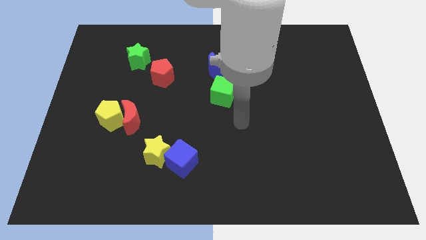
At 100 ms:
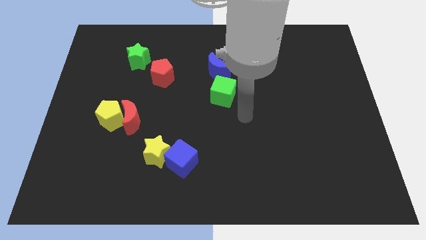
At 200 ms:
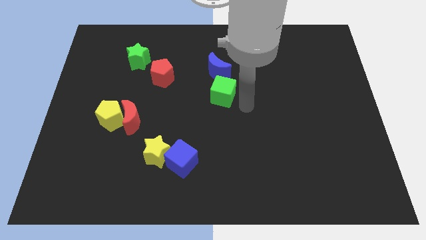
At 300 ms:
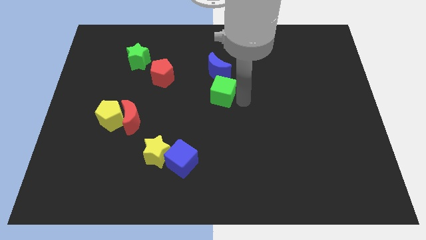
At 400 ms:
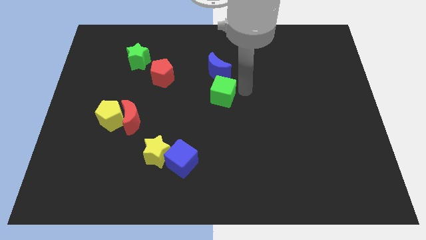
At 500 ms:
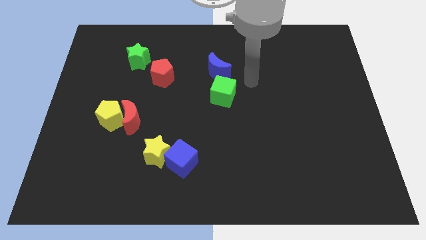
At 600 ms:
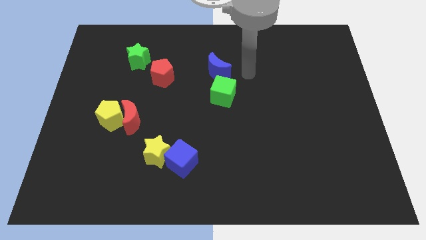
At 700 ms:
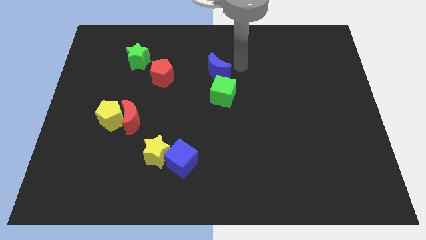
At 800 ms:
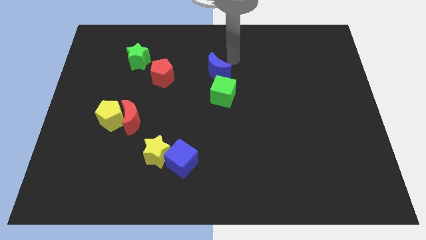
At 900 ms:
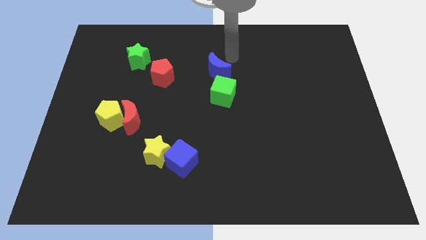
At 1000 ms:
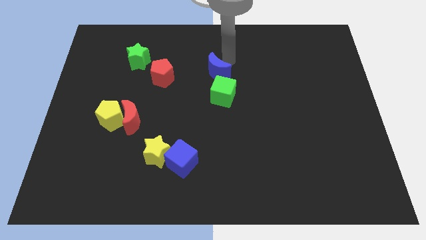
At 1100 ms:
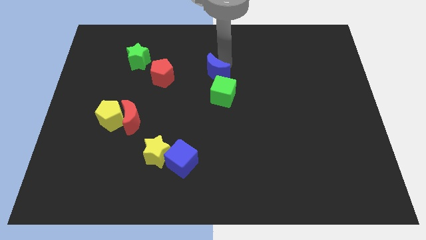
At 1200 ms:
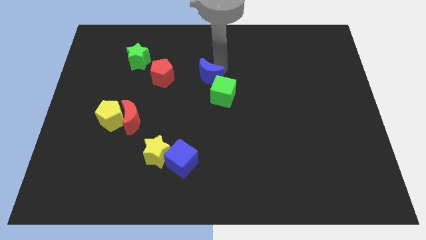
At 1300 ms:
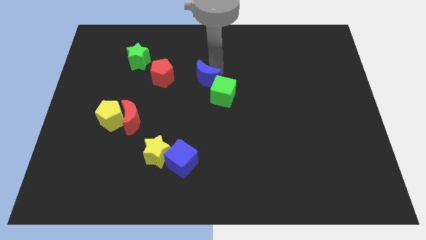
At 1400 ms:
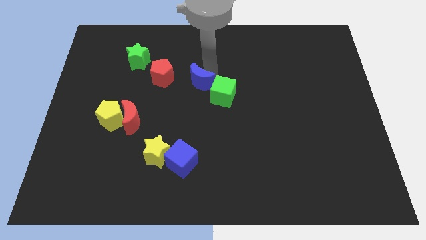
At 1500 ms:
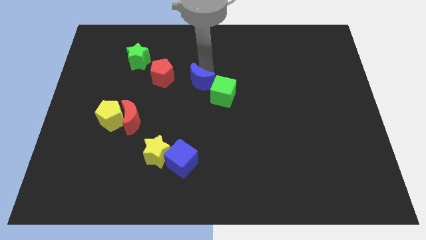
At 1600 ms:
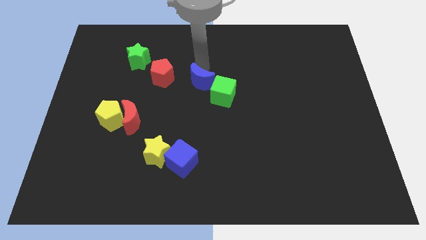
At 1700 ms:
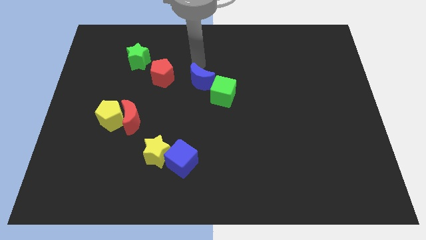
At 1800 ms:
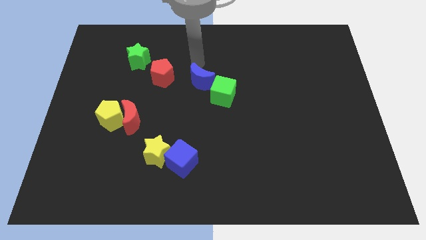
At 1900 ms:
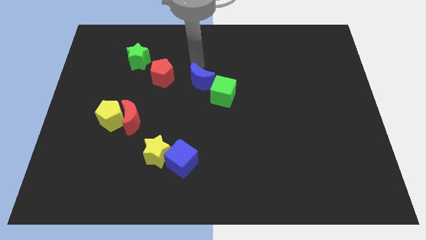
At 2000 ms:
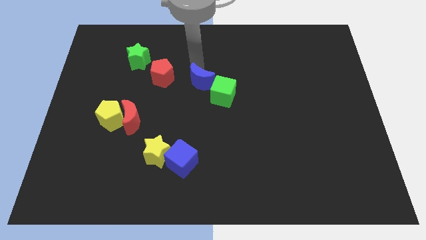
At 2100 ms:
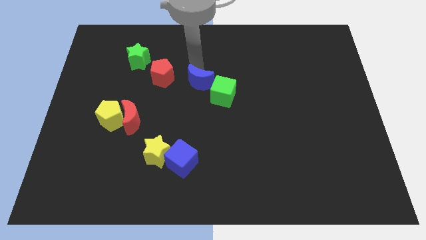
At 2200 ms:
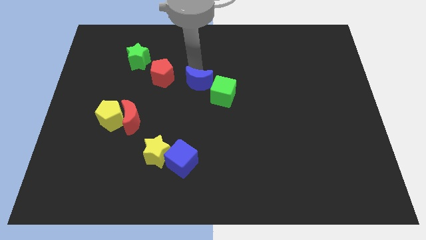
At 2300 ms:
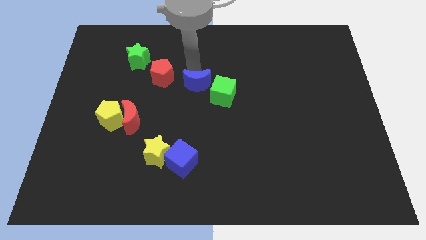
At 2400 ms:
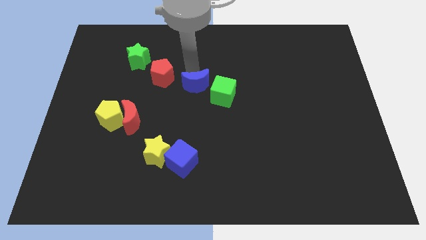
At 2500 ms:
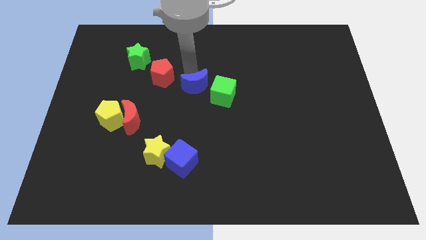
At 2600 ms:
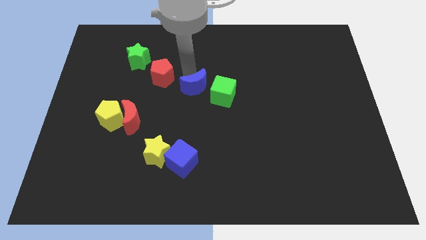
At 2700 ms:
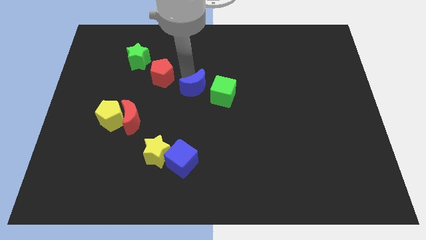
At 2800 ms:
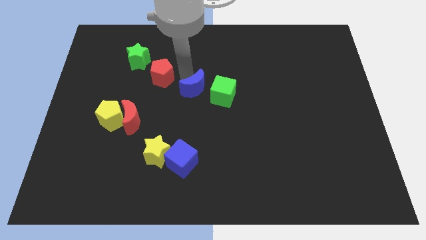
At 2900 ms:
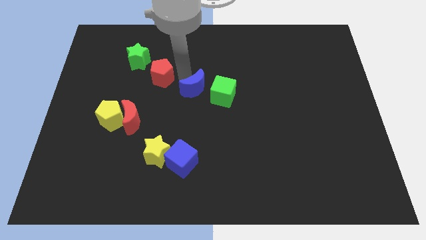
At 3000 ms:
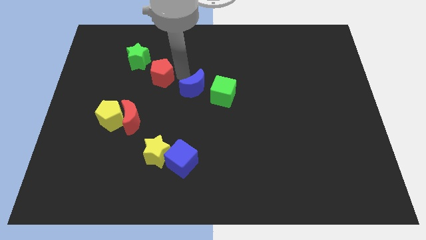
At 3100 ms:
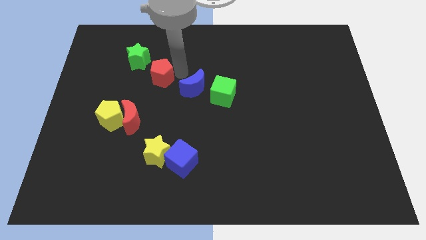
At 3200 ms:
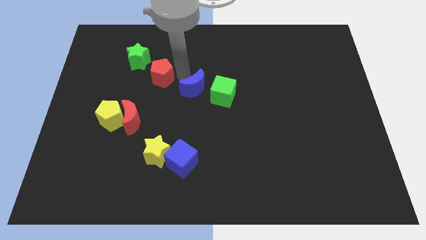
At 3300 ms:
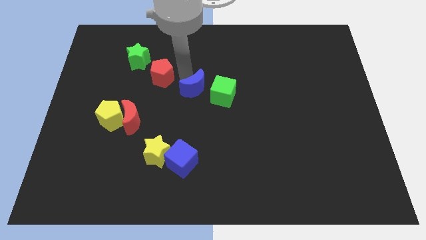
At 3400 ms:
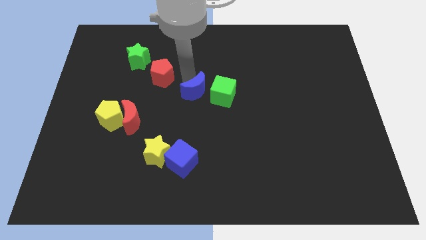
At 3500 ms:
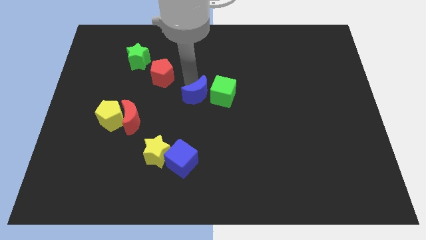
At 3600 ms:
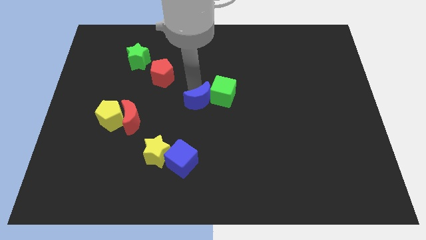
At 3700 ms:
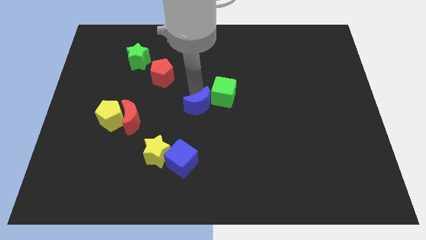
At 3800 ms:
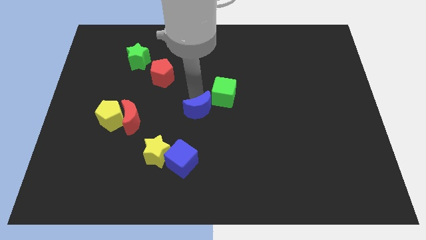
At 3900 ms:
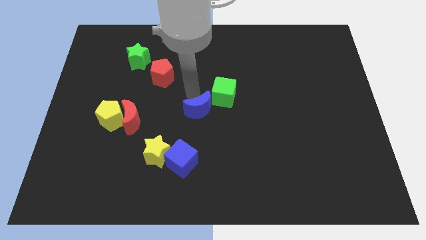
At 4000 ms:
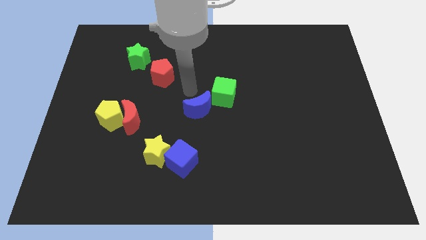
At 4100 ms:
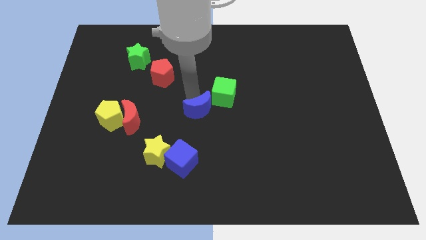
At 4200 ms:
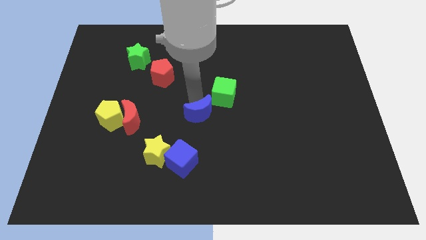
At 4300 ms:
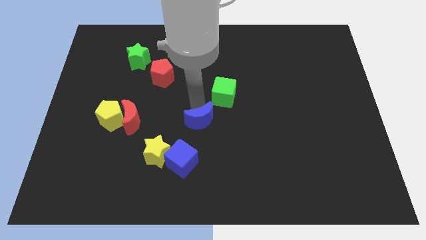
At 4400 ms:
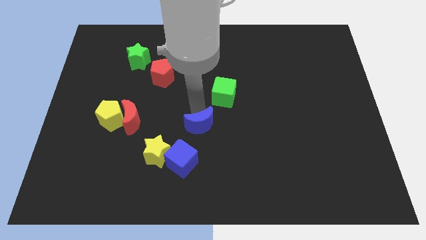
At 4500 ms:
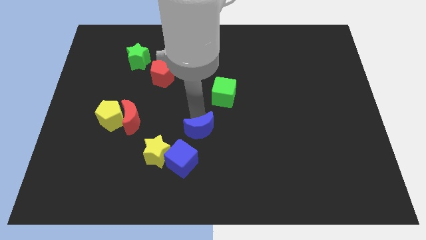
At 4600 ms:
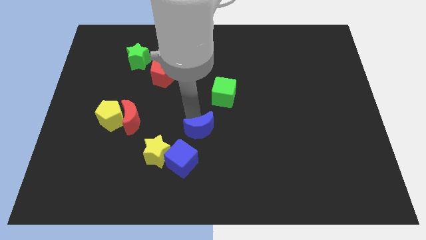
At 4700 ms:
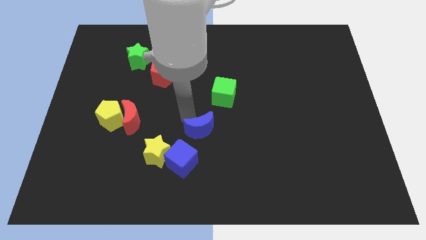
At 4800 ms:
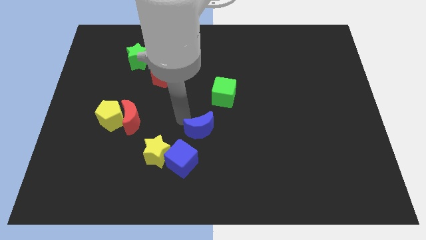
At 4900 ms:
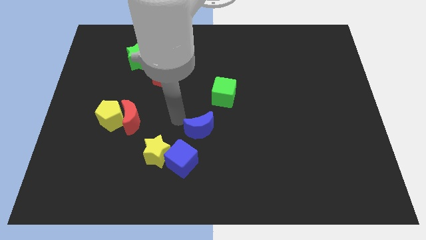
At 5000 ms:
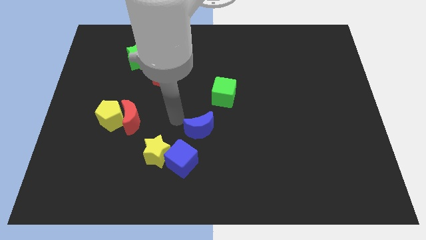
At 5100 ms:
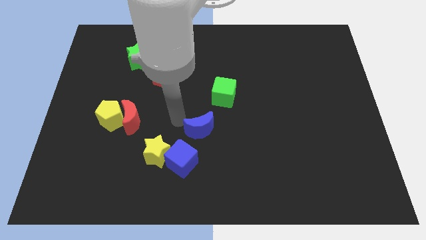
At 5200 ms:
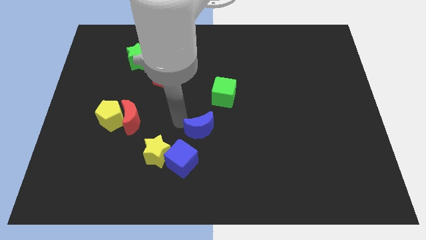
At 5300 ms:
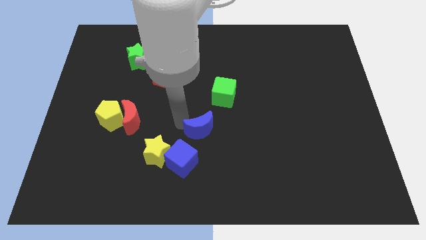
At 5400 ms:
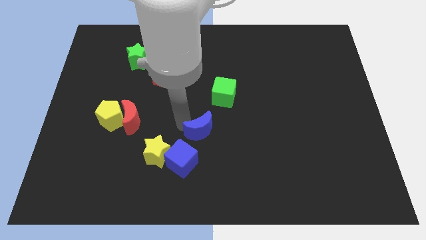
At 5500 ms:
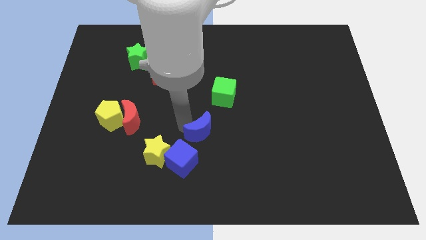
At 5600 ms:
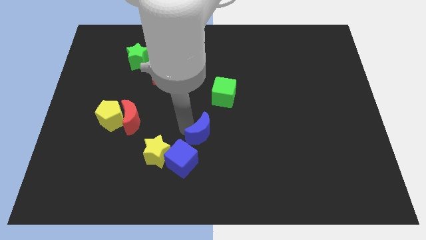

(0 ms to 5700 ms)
move the blue moon right of the yellow star

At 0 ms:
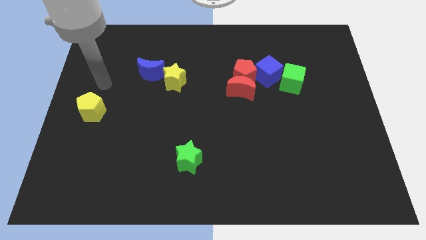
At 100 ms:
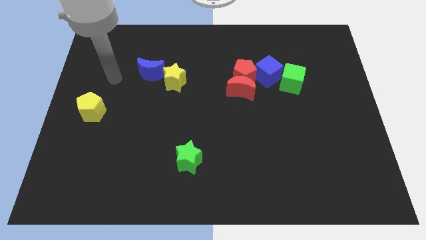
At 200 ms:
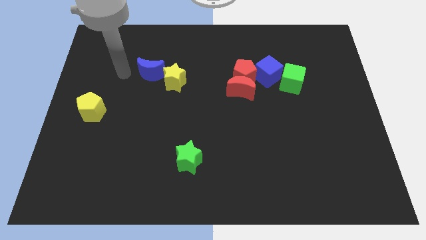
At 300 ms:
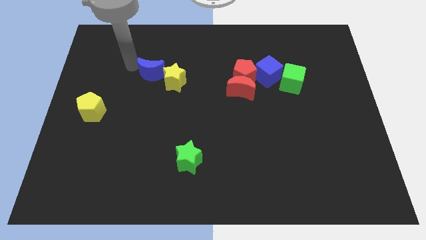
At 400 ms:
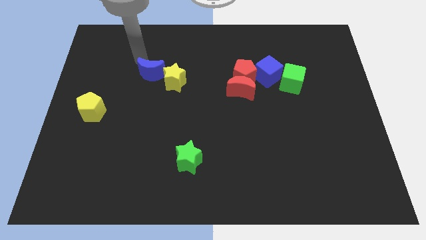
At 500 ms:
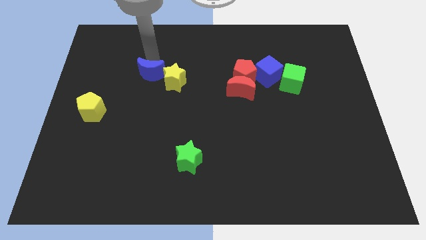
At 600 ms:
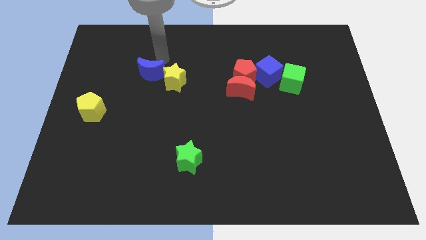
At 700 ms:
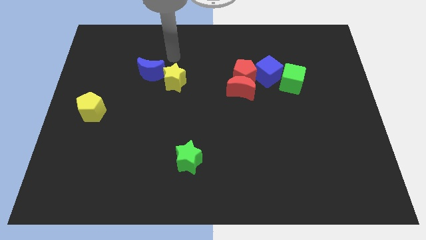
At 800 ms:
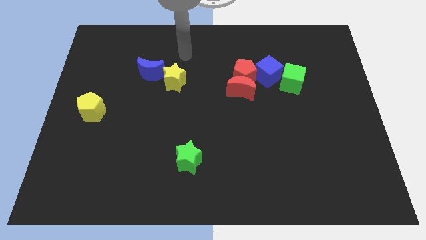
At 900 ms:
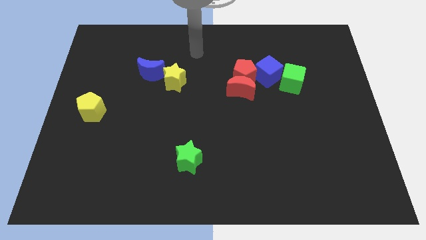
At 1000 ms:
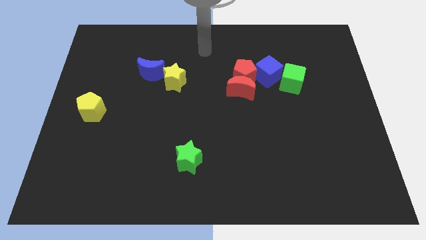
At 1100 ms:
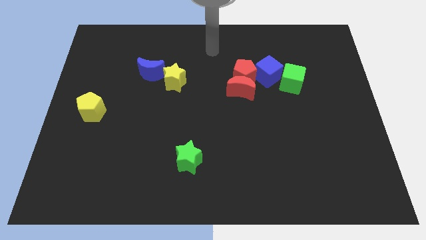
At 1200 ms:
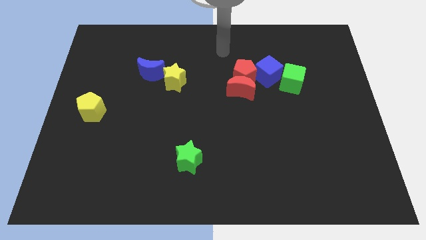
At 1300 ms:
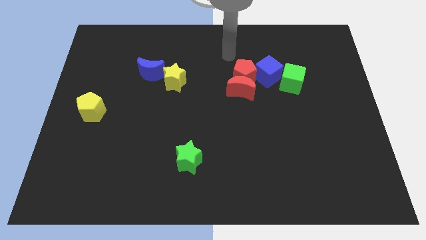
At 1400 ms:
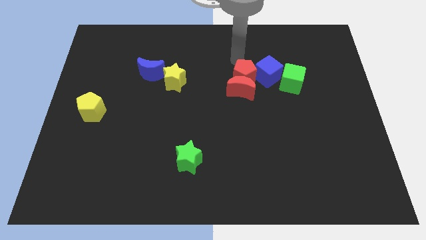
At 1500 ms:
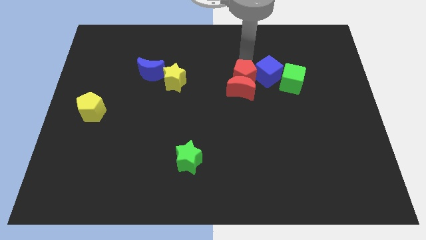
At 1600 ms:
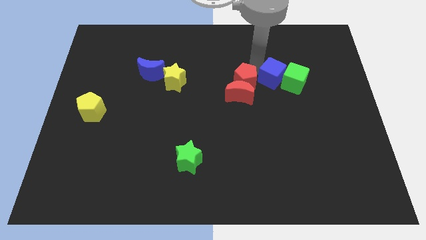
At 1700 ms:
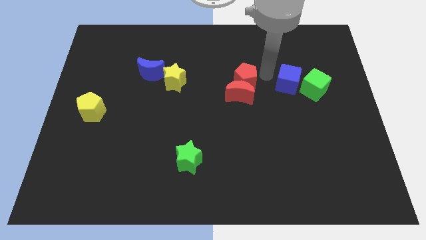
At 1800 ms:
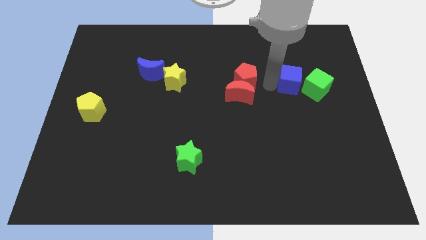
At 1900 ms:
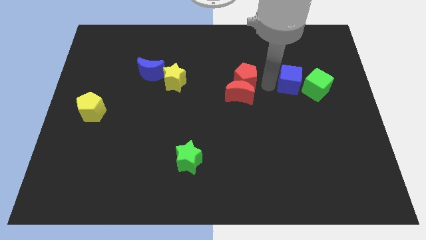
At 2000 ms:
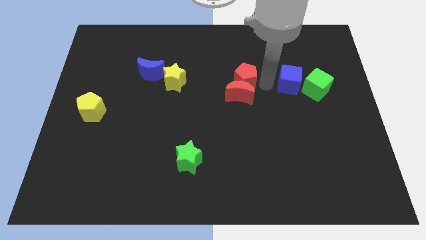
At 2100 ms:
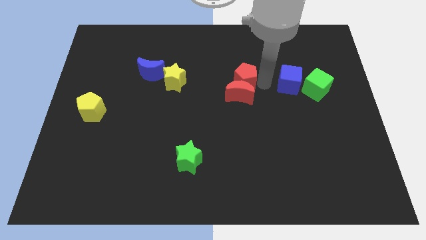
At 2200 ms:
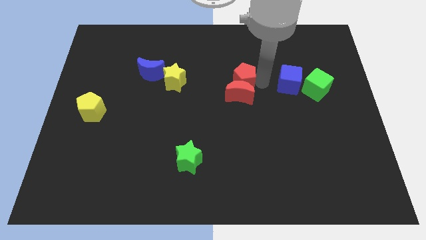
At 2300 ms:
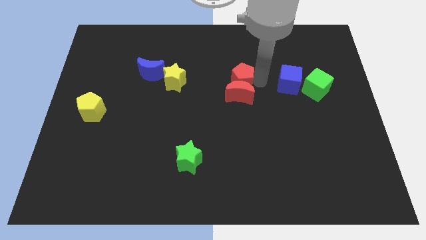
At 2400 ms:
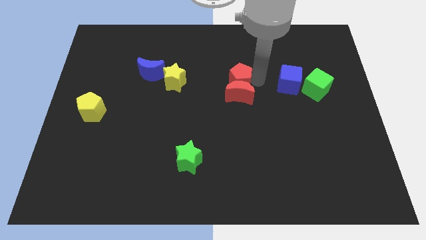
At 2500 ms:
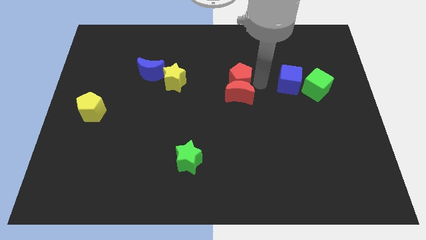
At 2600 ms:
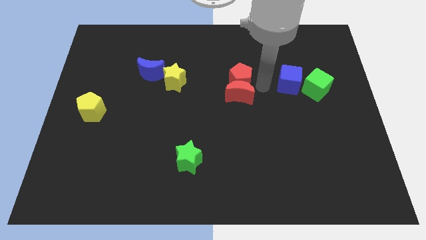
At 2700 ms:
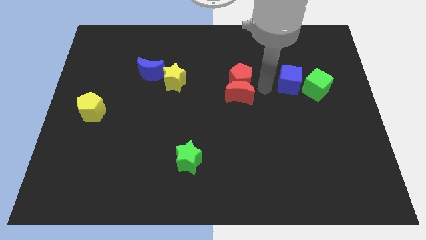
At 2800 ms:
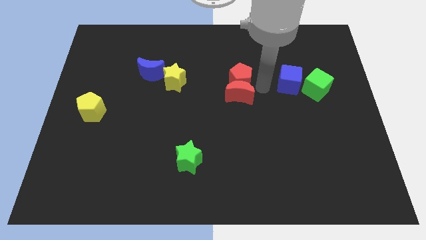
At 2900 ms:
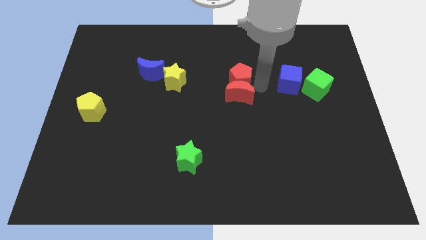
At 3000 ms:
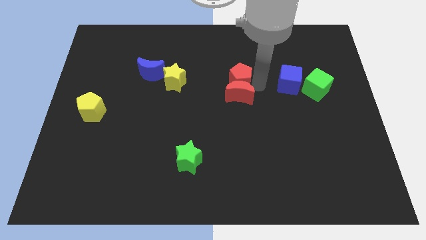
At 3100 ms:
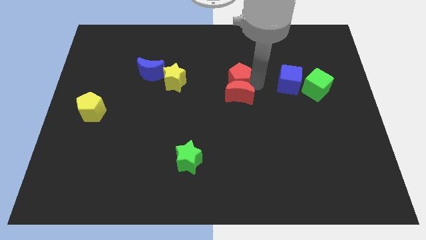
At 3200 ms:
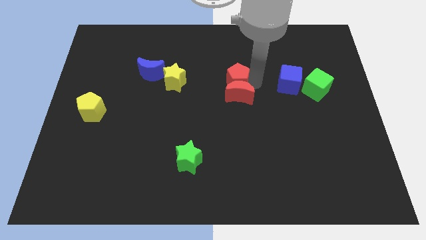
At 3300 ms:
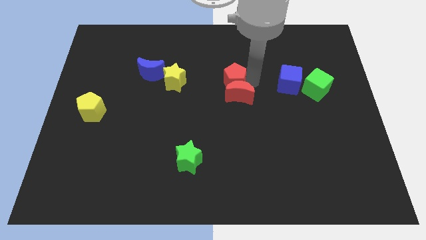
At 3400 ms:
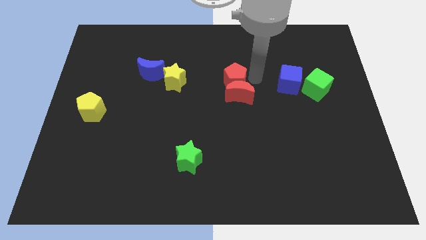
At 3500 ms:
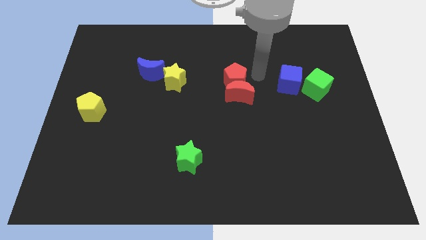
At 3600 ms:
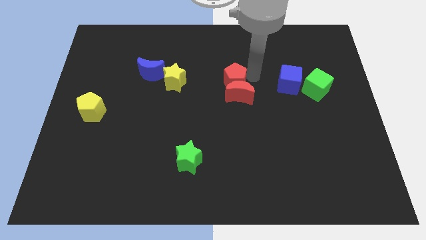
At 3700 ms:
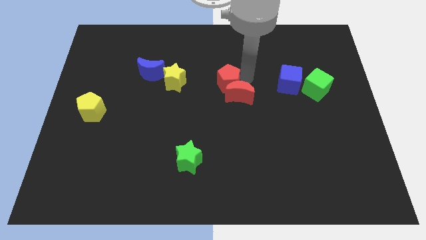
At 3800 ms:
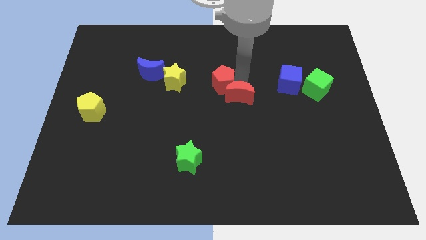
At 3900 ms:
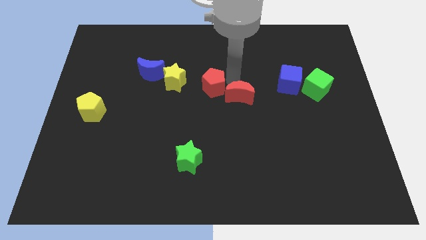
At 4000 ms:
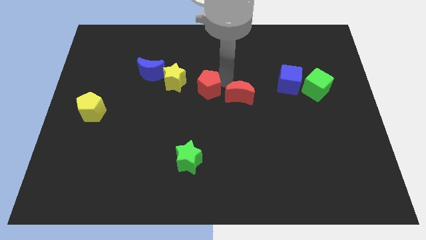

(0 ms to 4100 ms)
push the red pentagon diagonally down and to the right of the yellow star
